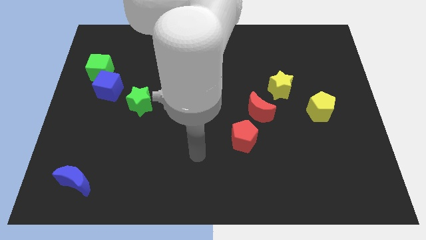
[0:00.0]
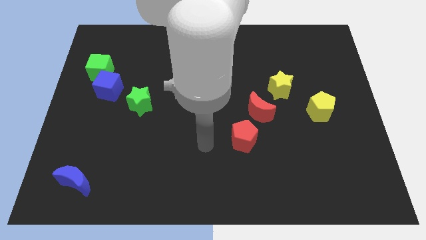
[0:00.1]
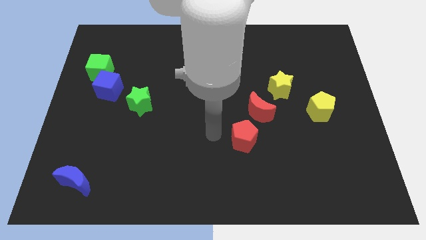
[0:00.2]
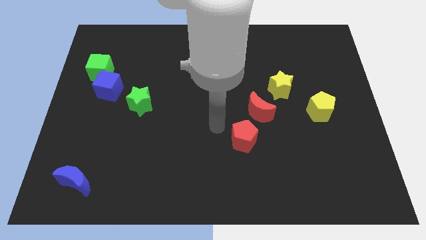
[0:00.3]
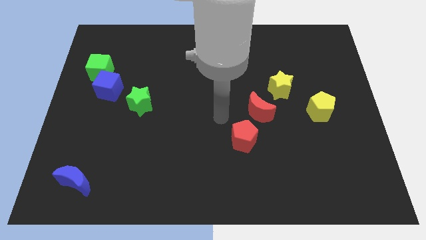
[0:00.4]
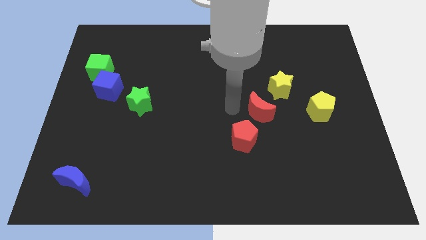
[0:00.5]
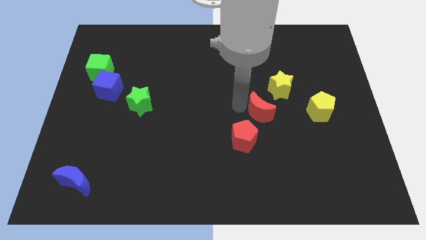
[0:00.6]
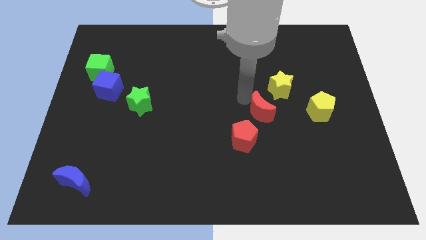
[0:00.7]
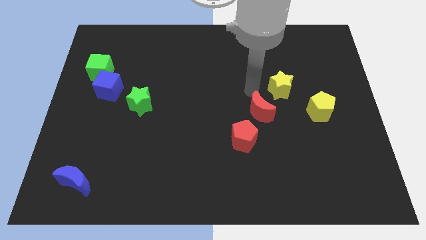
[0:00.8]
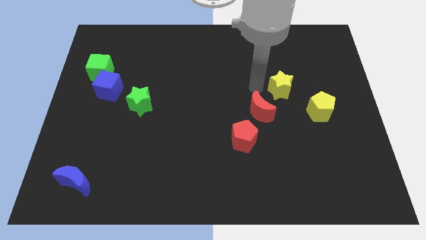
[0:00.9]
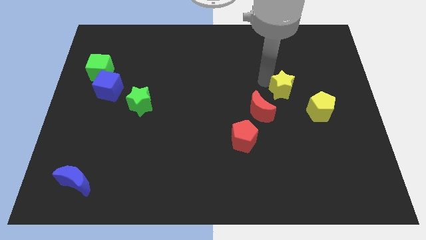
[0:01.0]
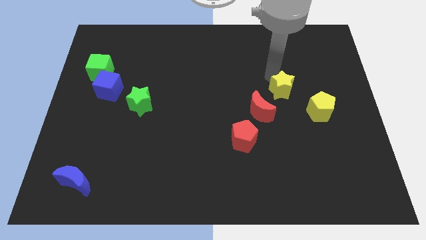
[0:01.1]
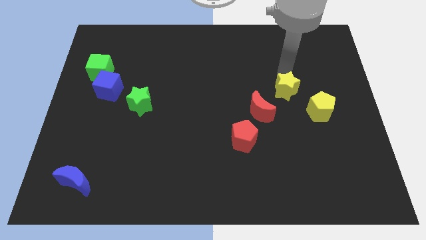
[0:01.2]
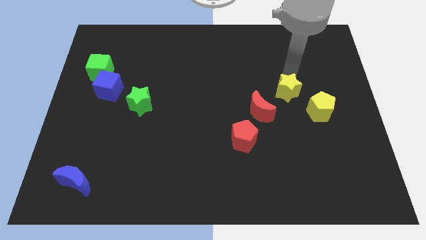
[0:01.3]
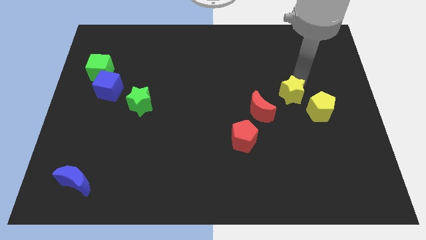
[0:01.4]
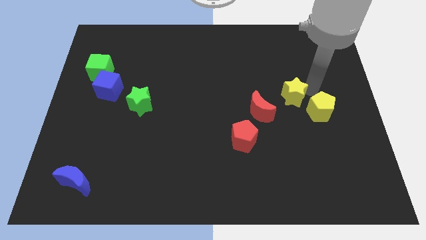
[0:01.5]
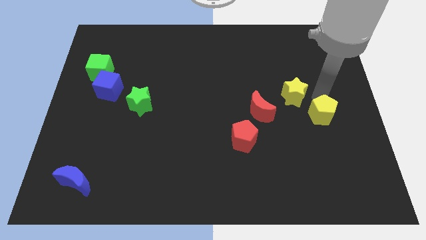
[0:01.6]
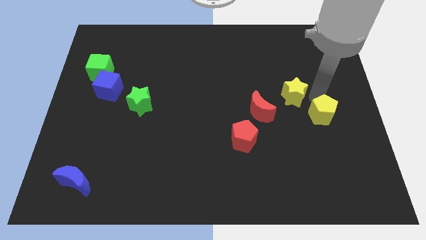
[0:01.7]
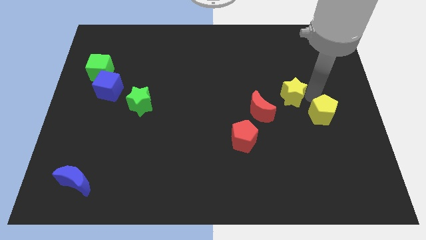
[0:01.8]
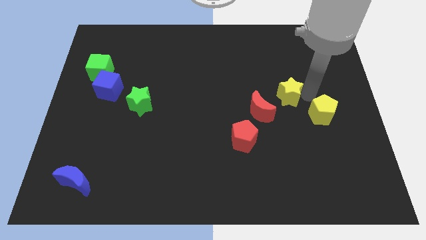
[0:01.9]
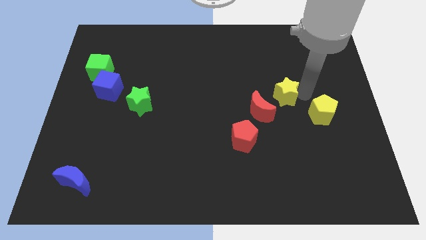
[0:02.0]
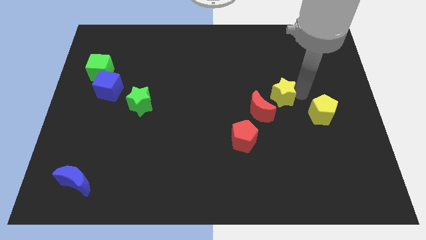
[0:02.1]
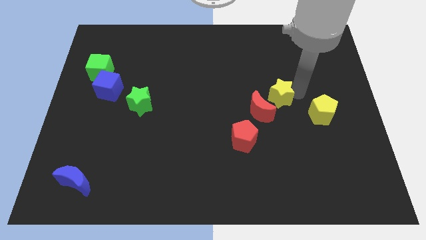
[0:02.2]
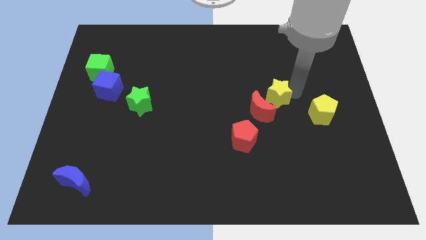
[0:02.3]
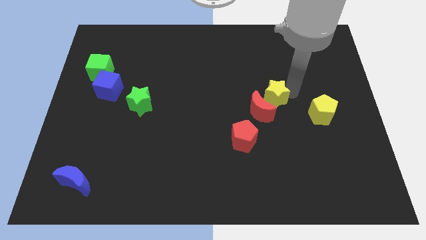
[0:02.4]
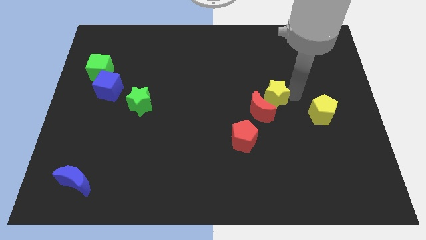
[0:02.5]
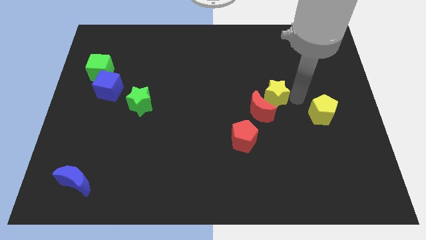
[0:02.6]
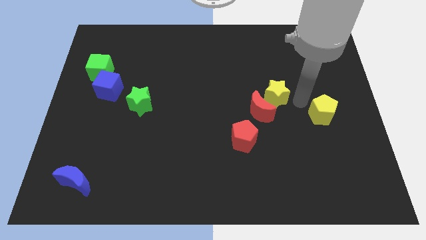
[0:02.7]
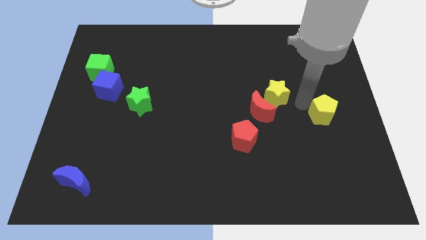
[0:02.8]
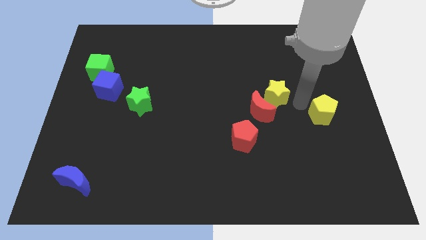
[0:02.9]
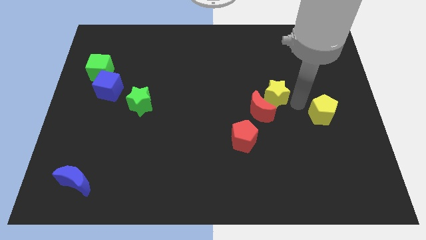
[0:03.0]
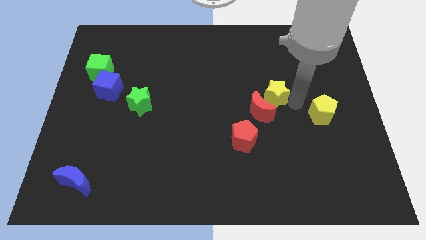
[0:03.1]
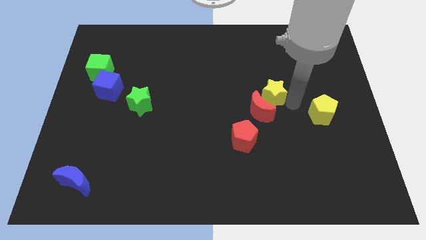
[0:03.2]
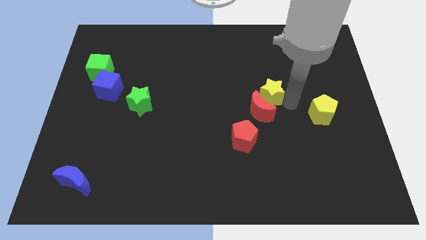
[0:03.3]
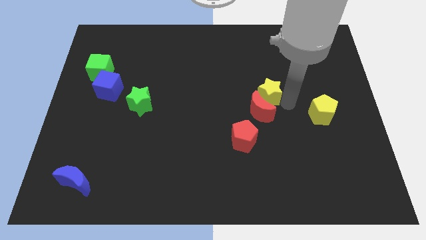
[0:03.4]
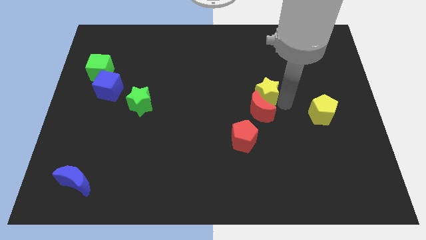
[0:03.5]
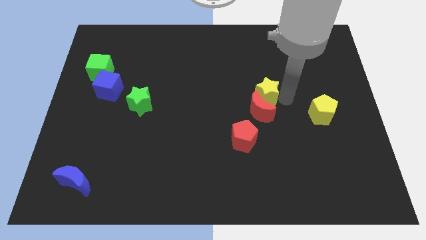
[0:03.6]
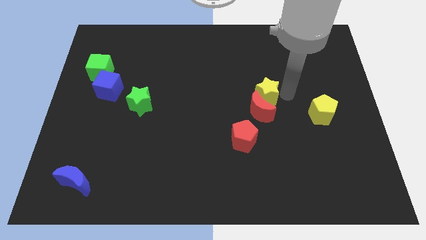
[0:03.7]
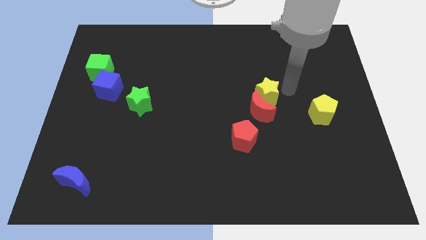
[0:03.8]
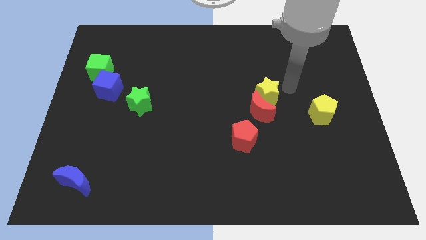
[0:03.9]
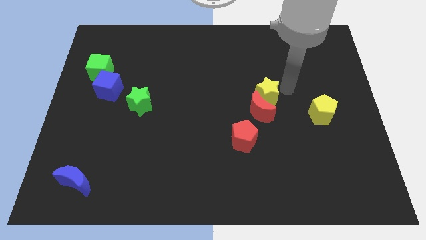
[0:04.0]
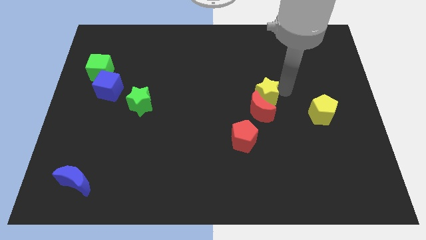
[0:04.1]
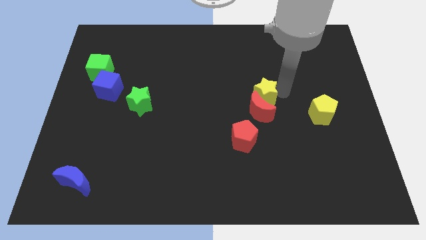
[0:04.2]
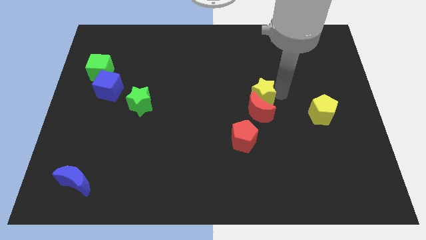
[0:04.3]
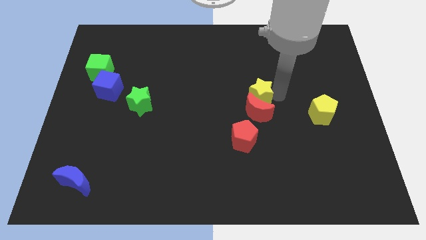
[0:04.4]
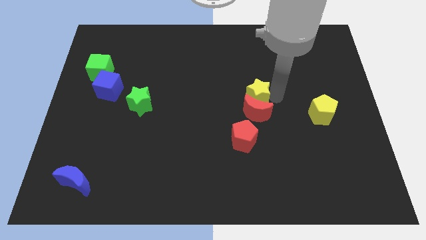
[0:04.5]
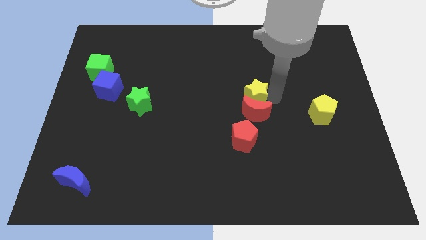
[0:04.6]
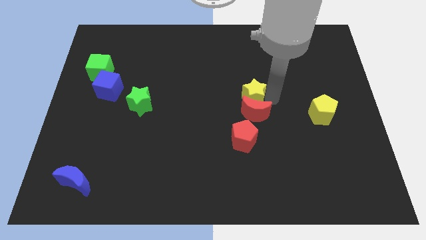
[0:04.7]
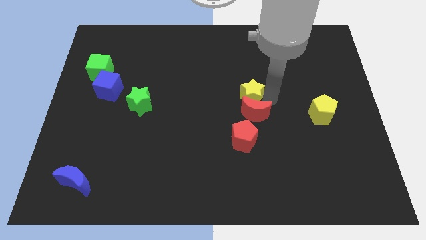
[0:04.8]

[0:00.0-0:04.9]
slide the yellow star a little downwards and then to the left

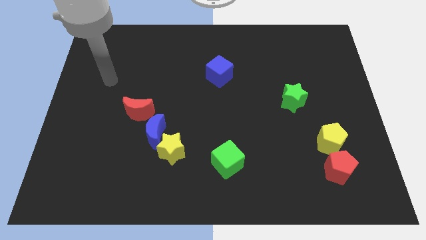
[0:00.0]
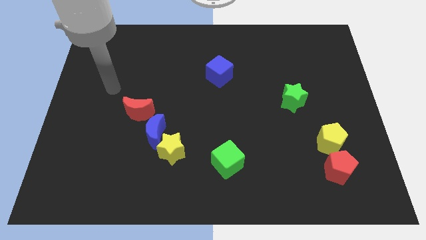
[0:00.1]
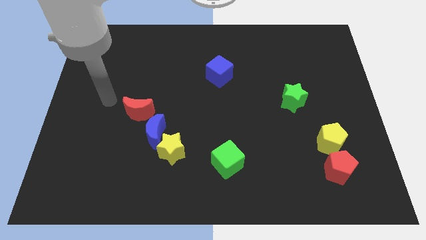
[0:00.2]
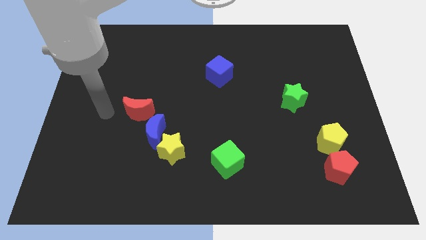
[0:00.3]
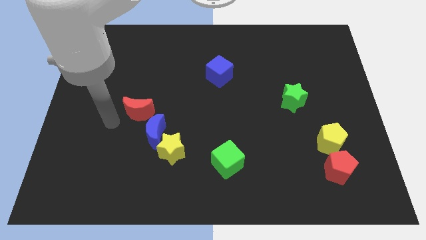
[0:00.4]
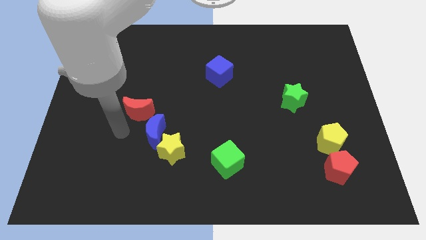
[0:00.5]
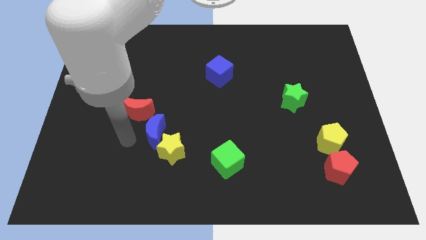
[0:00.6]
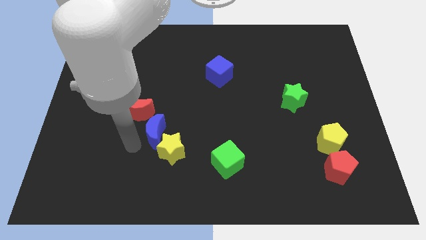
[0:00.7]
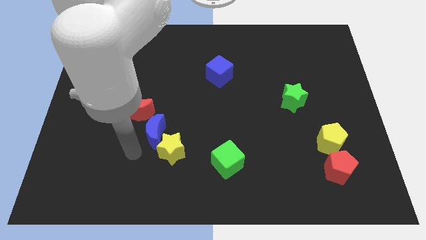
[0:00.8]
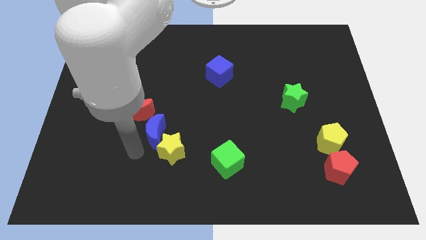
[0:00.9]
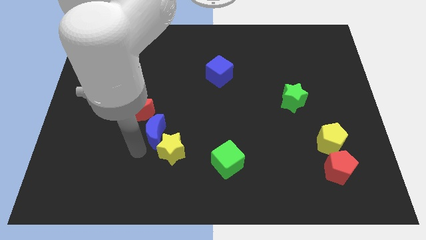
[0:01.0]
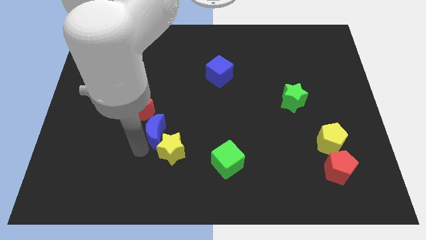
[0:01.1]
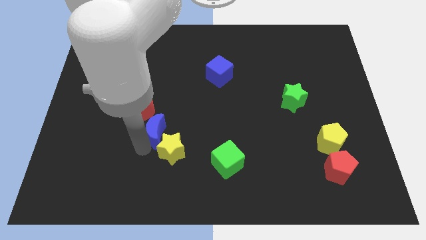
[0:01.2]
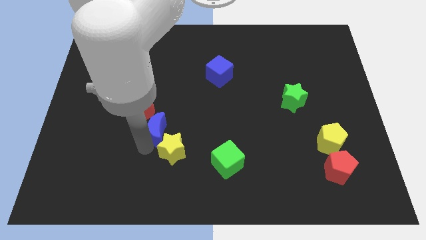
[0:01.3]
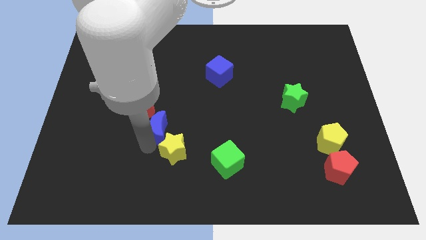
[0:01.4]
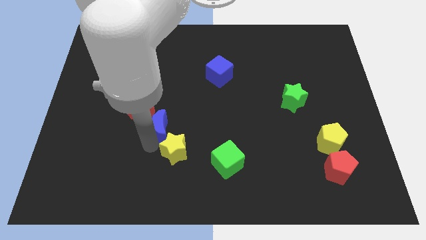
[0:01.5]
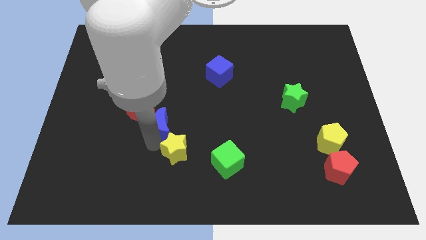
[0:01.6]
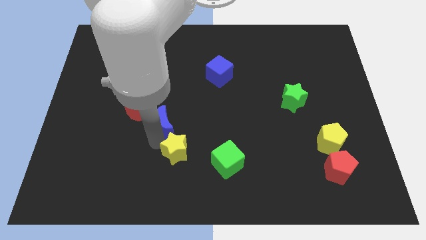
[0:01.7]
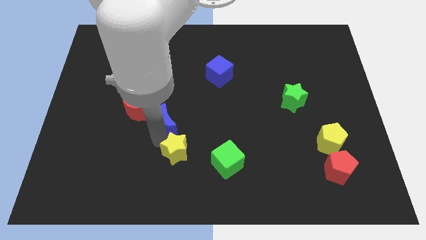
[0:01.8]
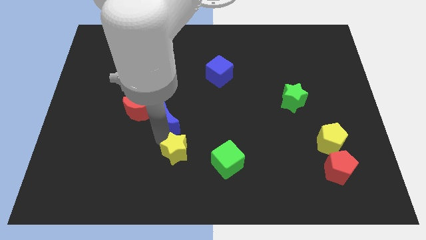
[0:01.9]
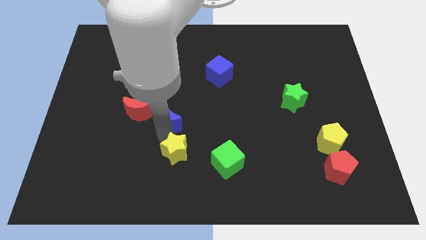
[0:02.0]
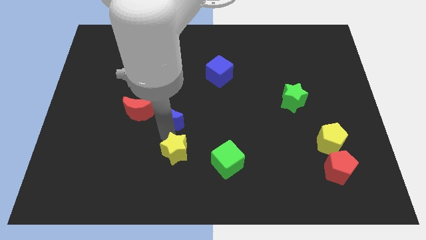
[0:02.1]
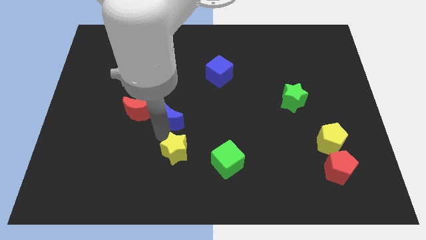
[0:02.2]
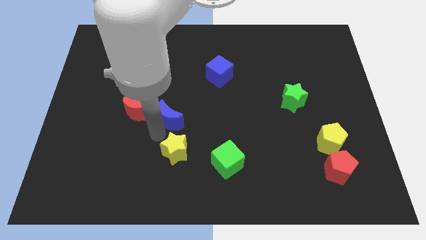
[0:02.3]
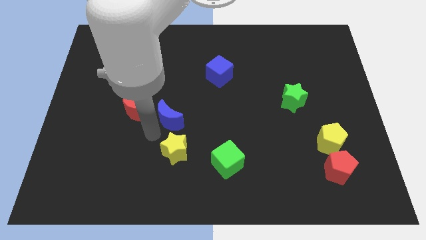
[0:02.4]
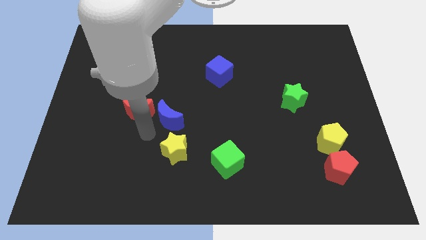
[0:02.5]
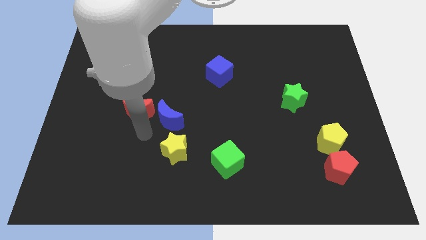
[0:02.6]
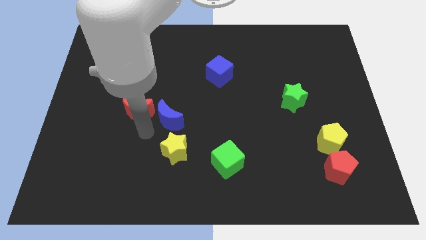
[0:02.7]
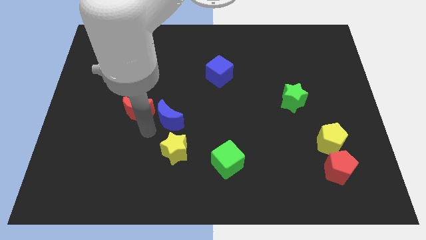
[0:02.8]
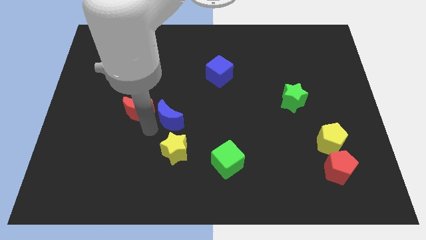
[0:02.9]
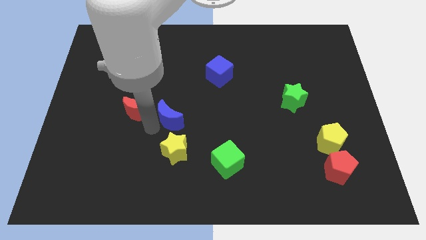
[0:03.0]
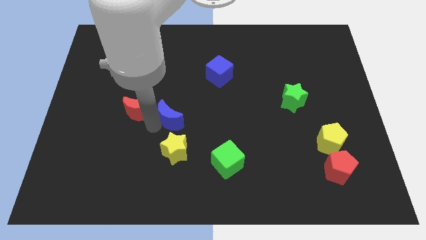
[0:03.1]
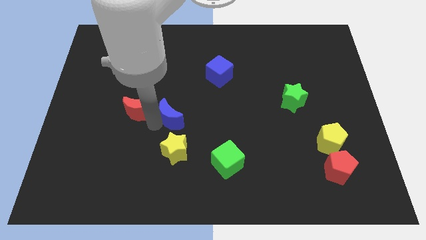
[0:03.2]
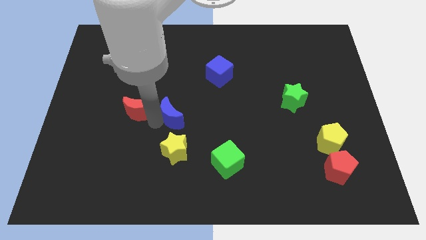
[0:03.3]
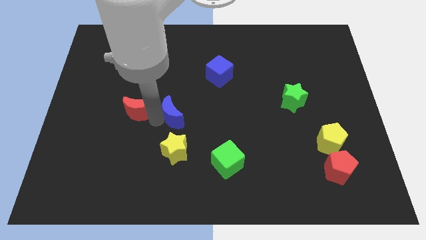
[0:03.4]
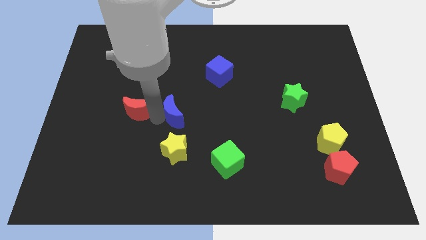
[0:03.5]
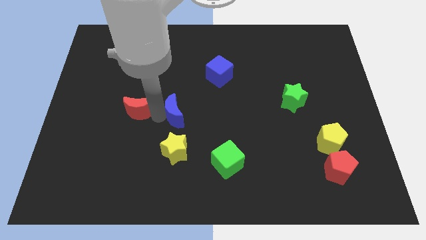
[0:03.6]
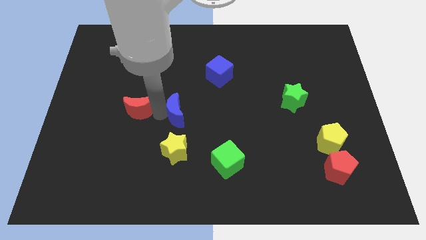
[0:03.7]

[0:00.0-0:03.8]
push the blue moon upwards and right diagonally a little bit
